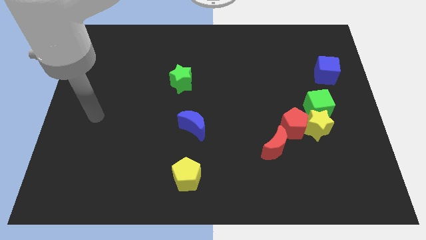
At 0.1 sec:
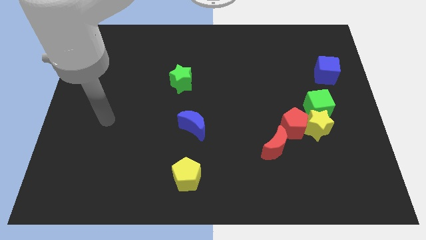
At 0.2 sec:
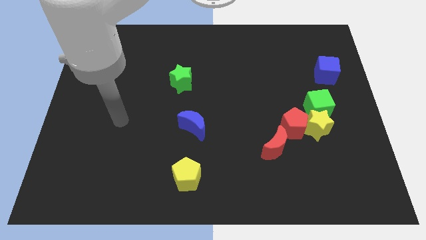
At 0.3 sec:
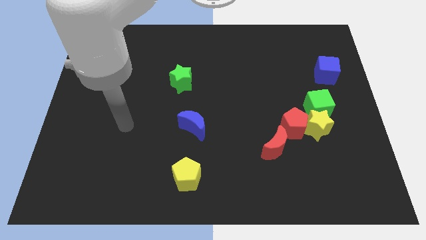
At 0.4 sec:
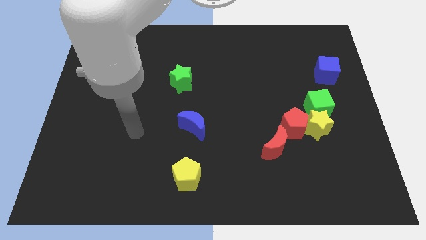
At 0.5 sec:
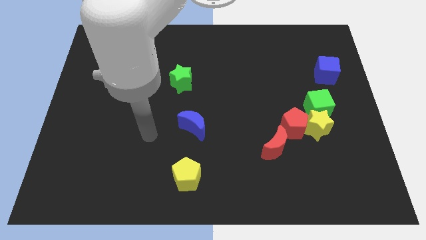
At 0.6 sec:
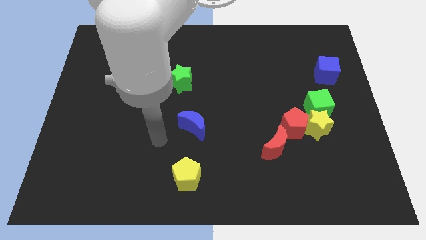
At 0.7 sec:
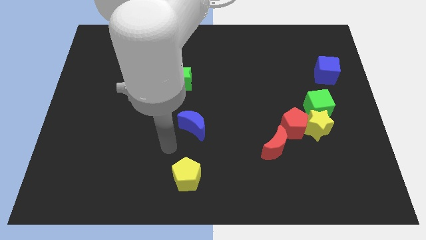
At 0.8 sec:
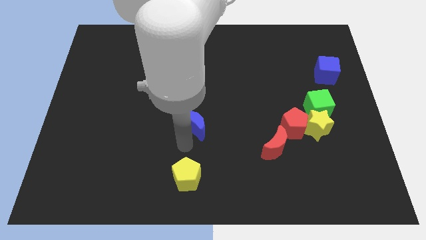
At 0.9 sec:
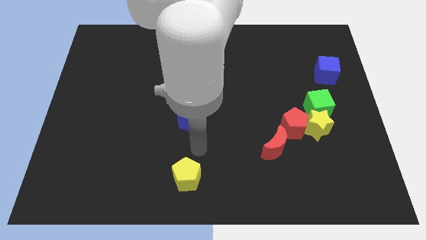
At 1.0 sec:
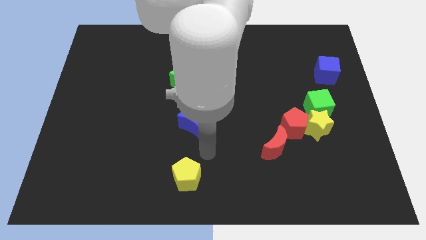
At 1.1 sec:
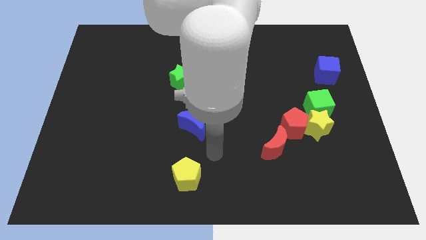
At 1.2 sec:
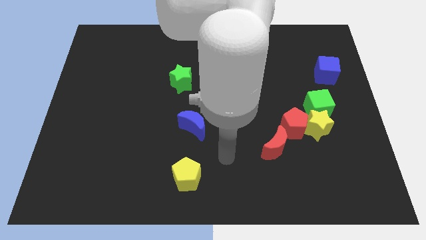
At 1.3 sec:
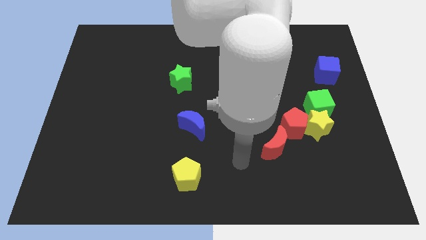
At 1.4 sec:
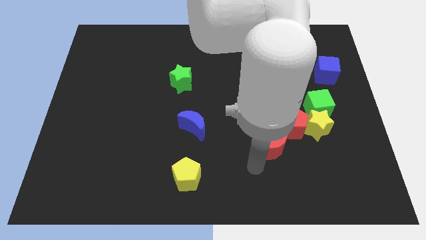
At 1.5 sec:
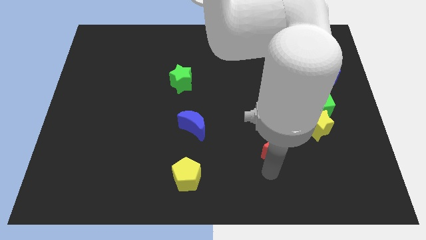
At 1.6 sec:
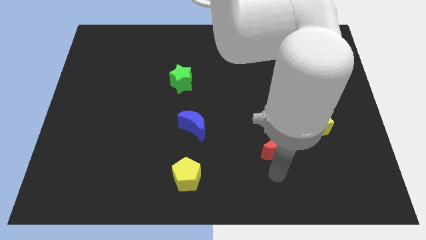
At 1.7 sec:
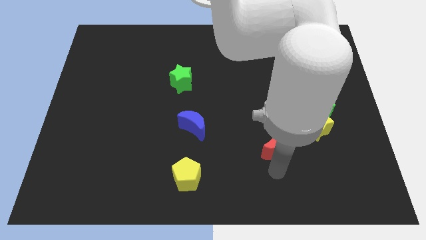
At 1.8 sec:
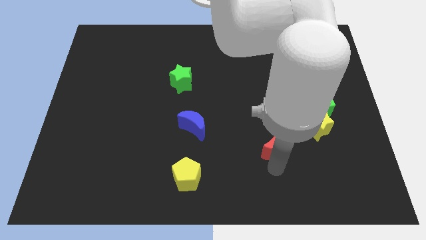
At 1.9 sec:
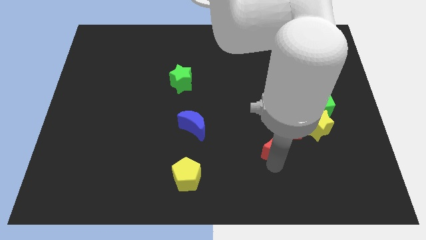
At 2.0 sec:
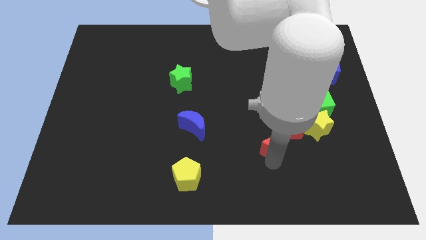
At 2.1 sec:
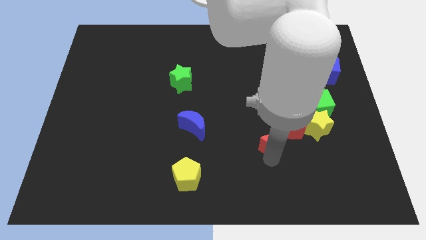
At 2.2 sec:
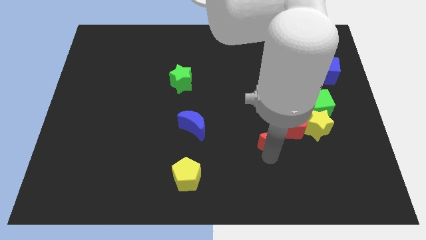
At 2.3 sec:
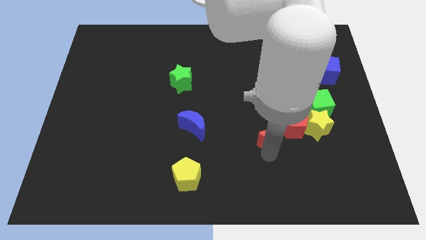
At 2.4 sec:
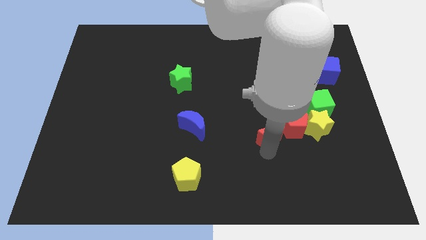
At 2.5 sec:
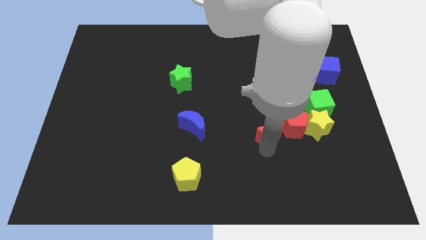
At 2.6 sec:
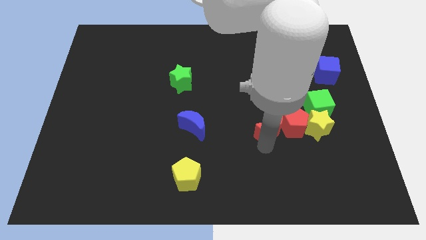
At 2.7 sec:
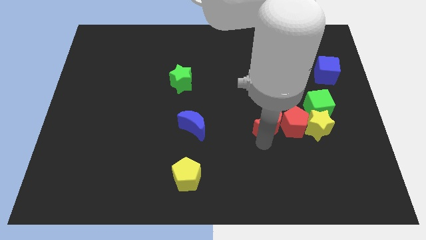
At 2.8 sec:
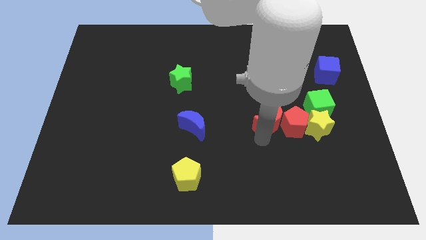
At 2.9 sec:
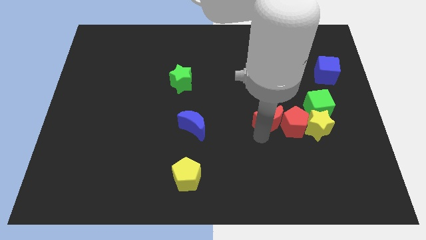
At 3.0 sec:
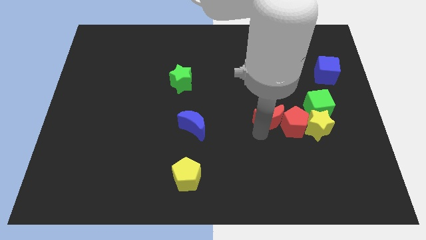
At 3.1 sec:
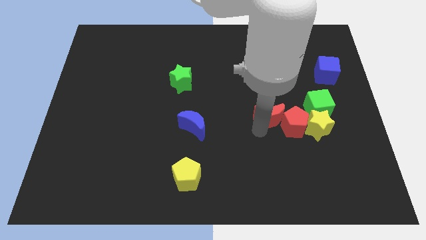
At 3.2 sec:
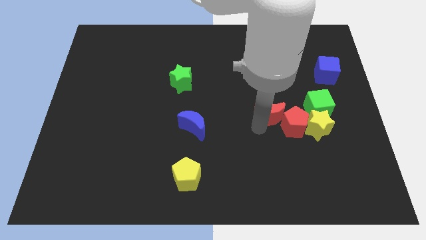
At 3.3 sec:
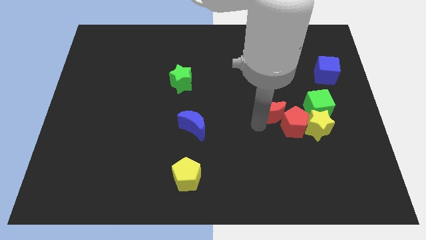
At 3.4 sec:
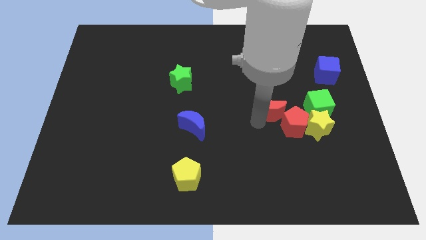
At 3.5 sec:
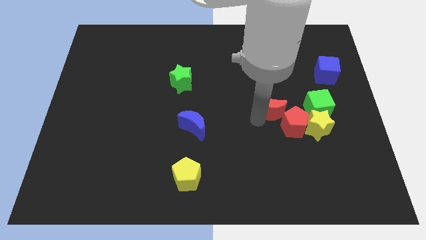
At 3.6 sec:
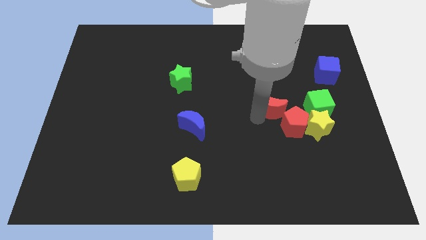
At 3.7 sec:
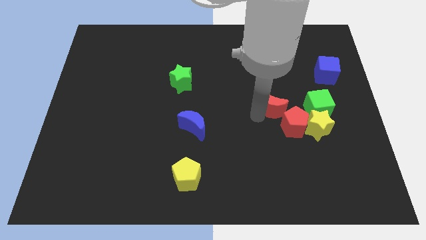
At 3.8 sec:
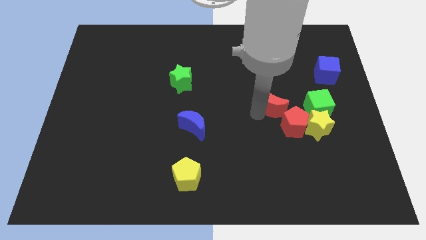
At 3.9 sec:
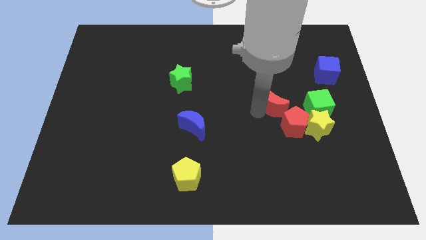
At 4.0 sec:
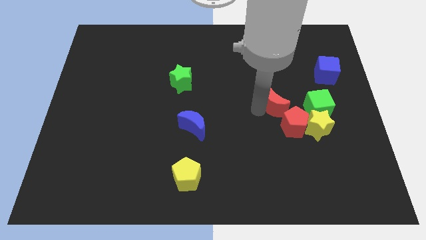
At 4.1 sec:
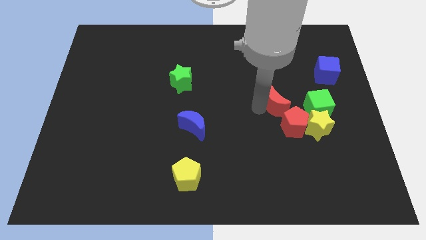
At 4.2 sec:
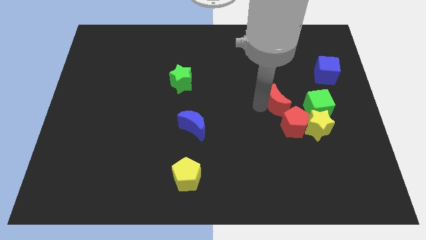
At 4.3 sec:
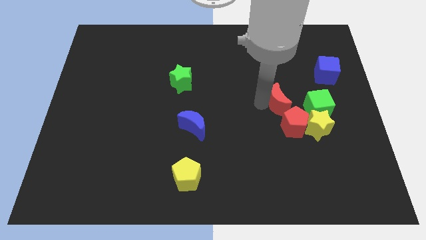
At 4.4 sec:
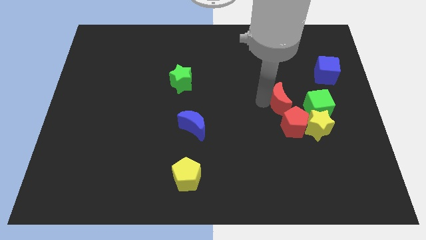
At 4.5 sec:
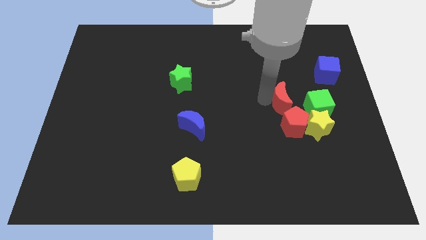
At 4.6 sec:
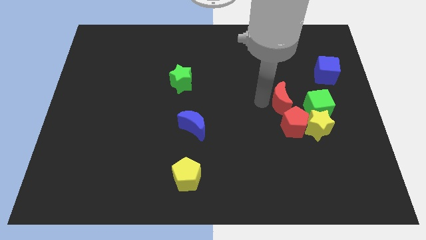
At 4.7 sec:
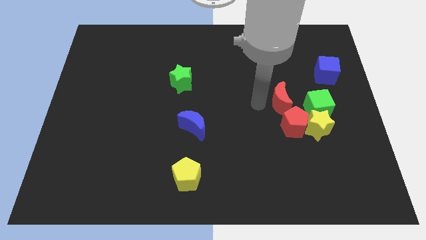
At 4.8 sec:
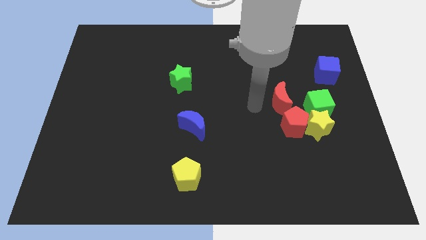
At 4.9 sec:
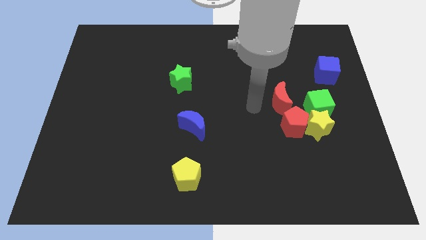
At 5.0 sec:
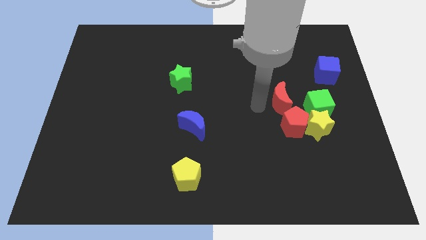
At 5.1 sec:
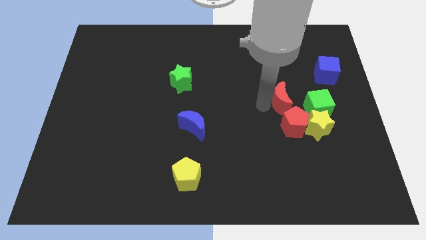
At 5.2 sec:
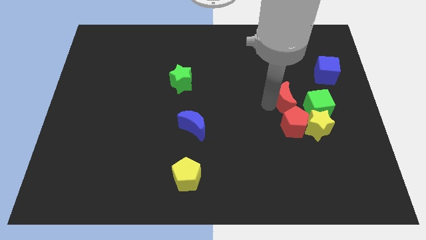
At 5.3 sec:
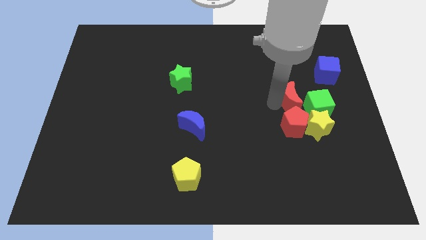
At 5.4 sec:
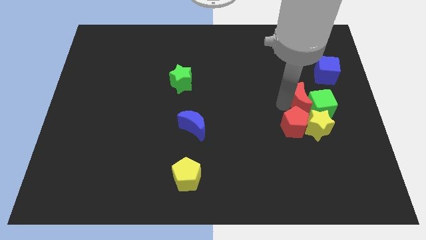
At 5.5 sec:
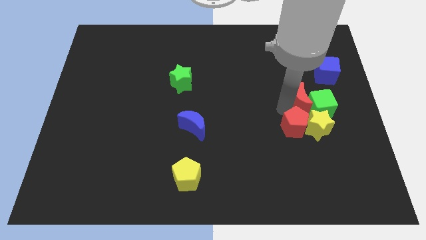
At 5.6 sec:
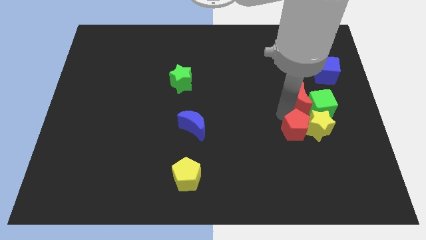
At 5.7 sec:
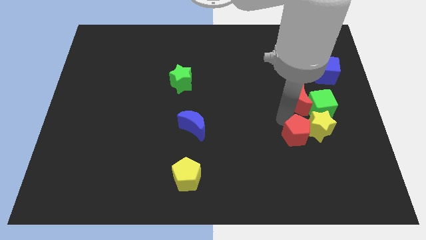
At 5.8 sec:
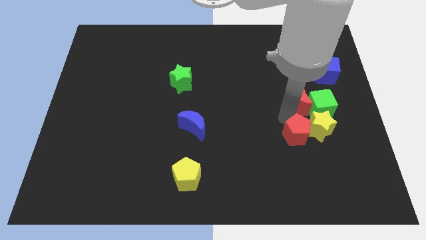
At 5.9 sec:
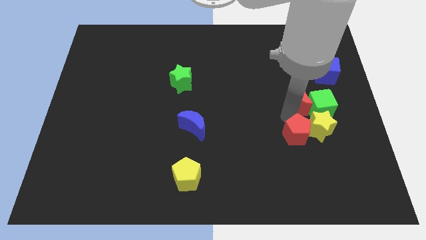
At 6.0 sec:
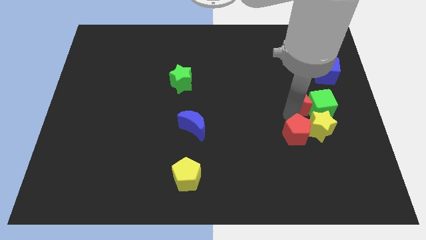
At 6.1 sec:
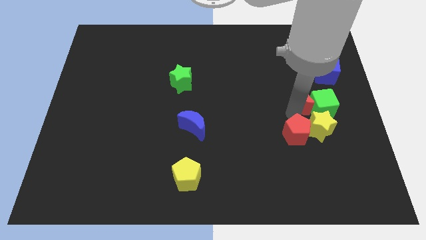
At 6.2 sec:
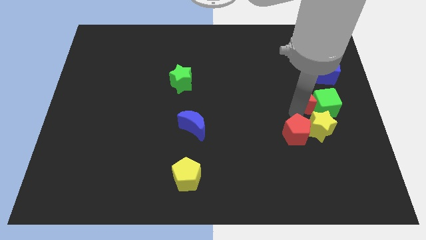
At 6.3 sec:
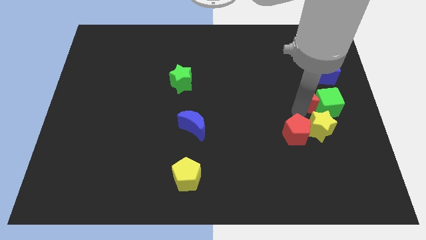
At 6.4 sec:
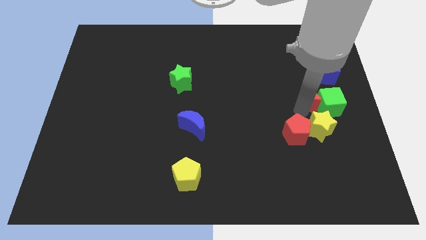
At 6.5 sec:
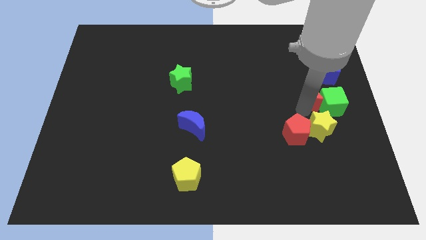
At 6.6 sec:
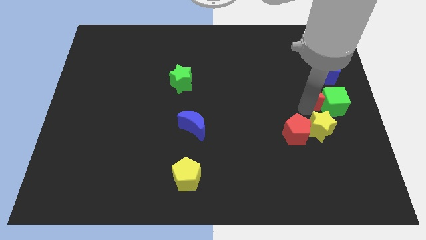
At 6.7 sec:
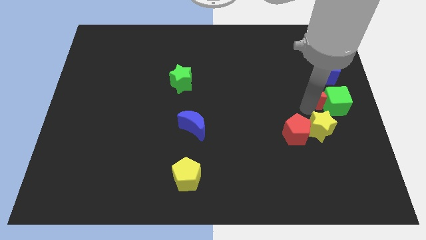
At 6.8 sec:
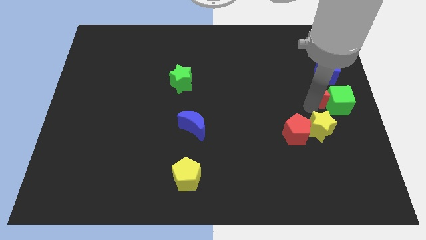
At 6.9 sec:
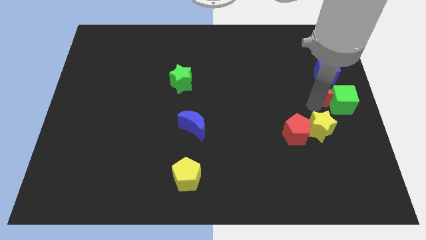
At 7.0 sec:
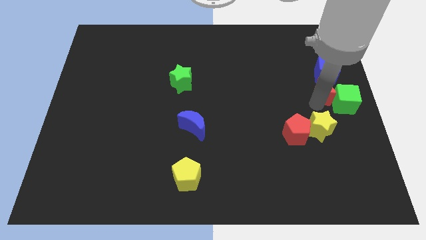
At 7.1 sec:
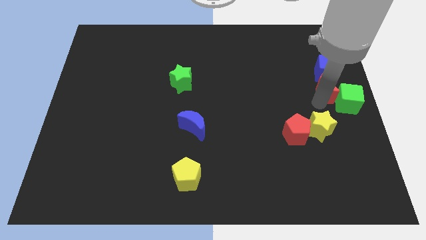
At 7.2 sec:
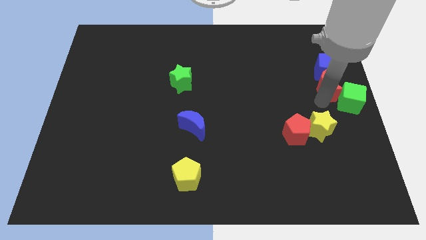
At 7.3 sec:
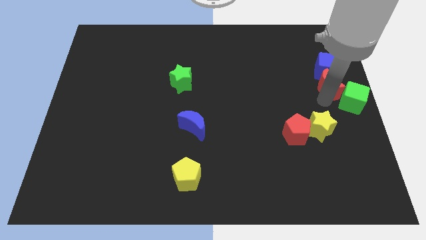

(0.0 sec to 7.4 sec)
slide the red moon close to the blue cube
